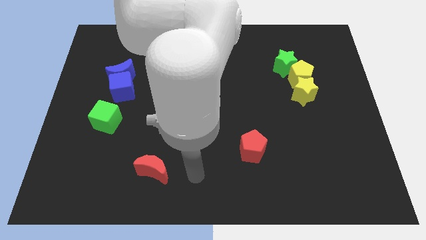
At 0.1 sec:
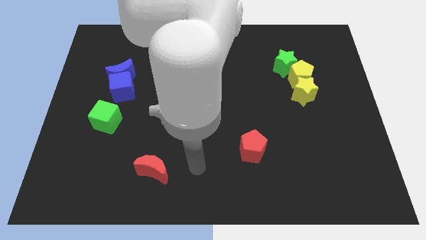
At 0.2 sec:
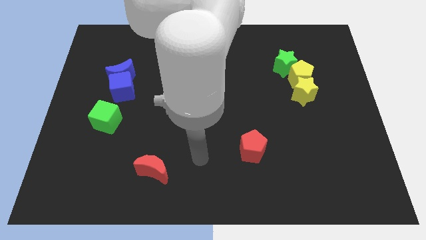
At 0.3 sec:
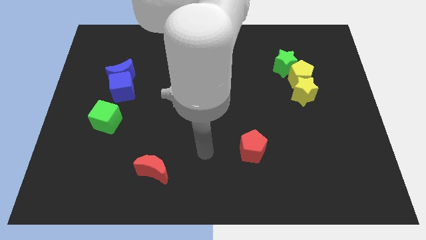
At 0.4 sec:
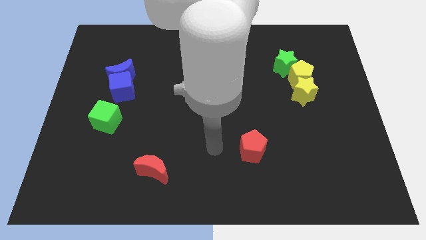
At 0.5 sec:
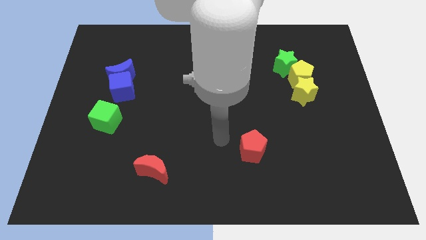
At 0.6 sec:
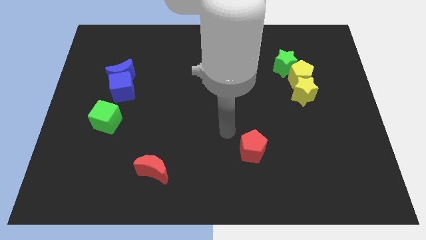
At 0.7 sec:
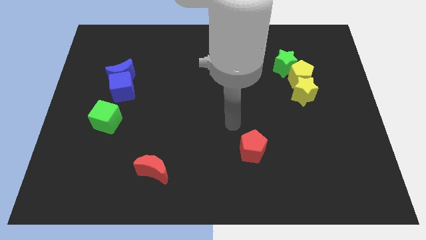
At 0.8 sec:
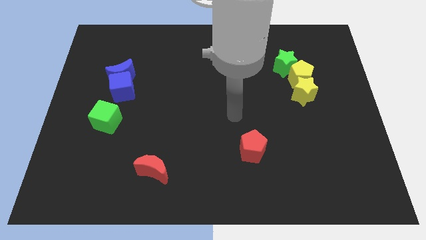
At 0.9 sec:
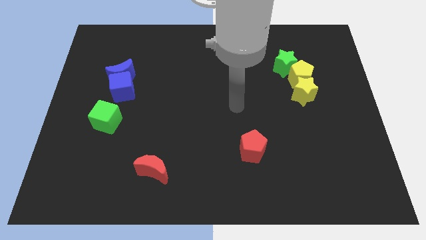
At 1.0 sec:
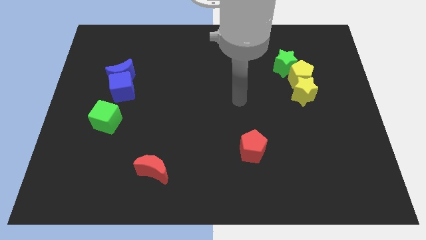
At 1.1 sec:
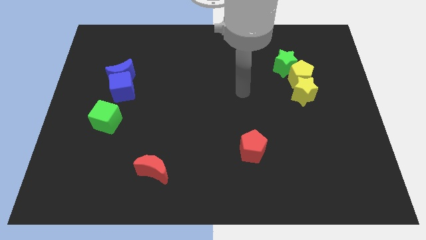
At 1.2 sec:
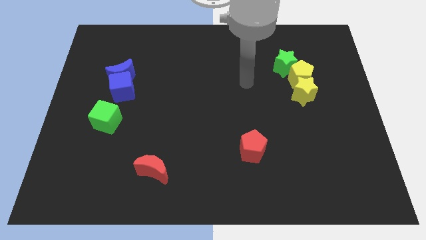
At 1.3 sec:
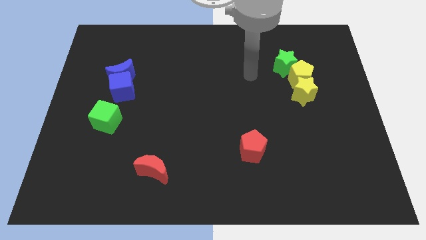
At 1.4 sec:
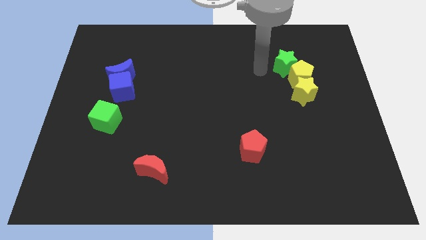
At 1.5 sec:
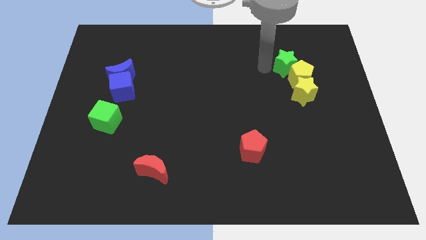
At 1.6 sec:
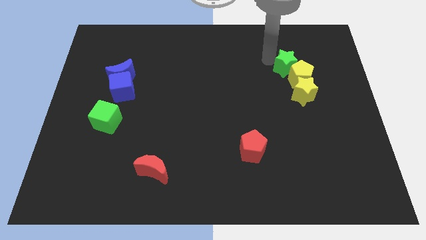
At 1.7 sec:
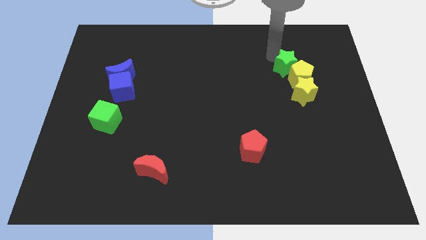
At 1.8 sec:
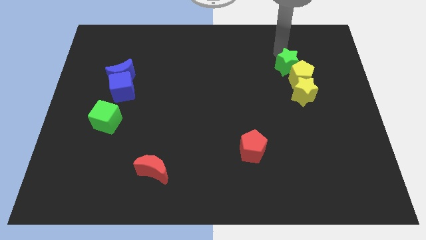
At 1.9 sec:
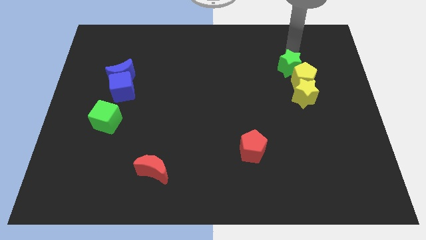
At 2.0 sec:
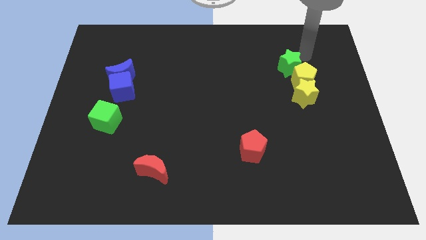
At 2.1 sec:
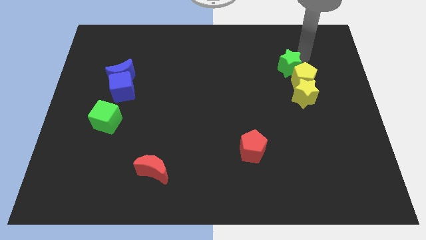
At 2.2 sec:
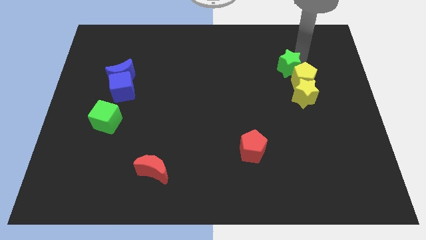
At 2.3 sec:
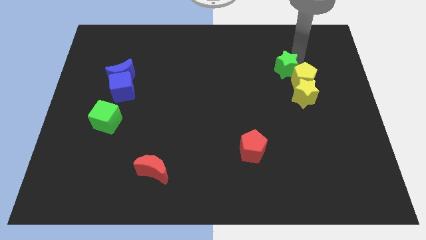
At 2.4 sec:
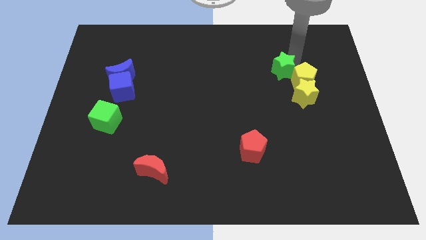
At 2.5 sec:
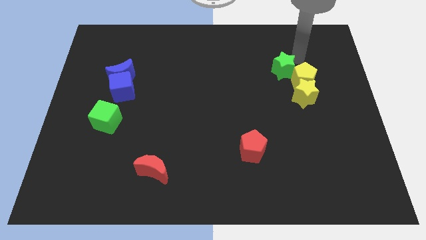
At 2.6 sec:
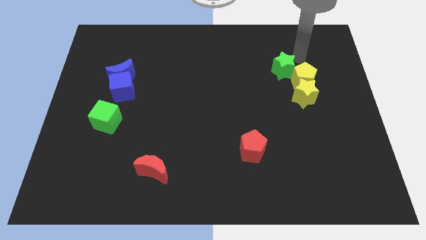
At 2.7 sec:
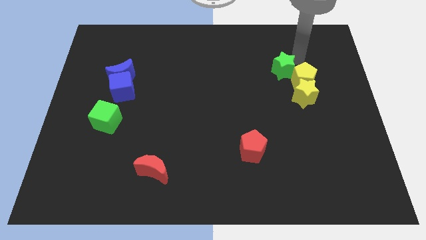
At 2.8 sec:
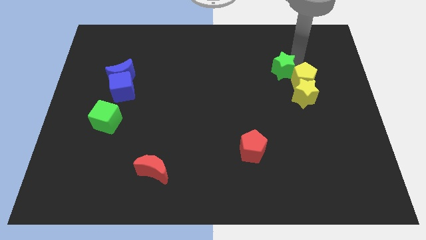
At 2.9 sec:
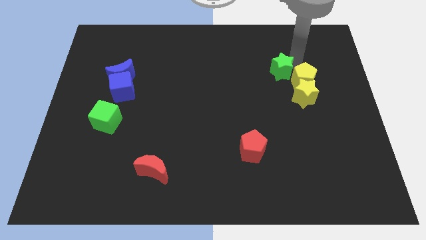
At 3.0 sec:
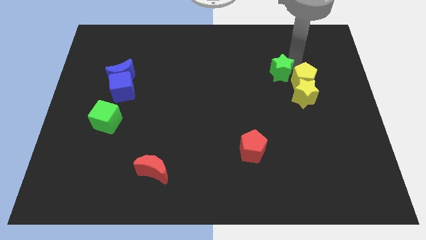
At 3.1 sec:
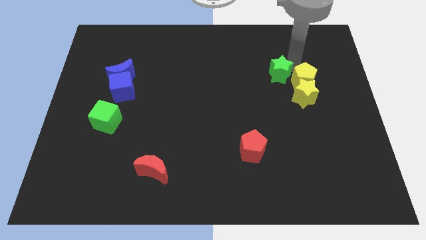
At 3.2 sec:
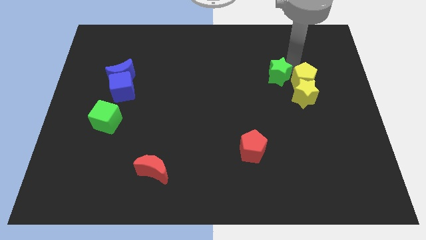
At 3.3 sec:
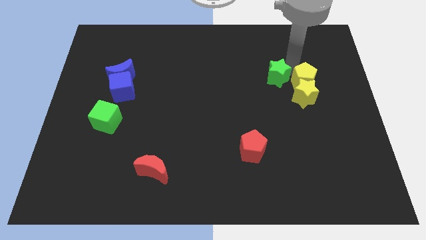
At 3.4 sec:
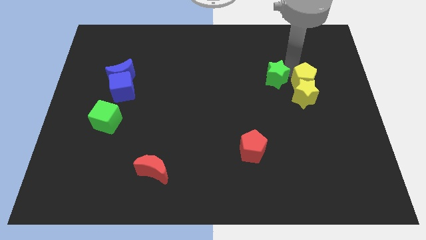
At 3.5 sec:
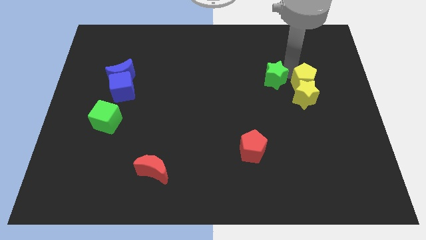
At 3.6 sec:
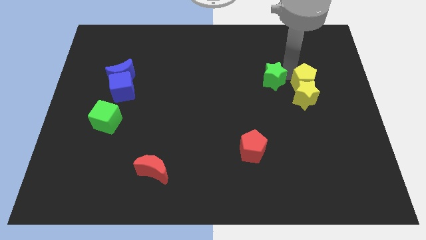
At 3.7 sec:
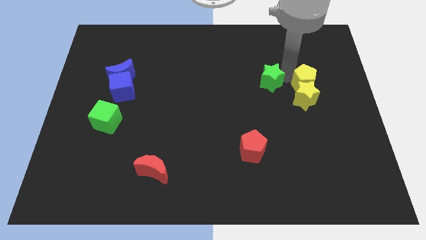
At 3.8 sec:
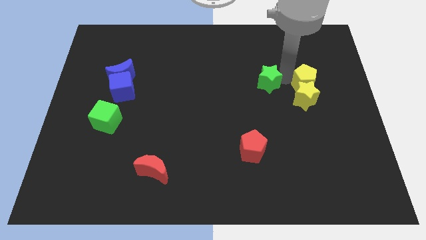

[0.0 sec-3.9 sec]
push the green star diagonally downwards and left a little bit

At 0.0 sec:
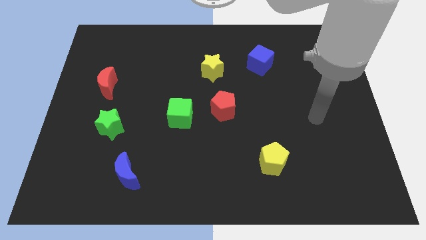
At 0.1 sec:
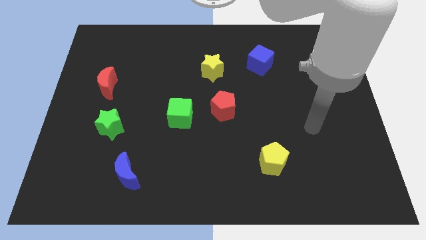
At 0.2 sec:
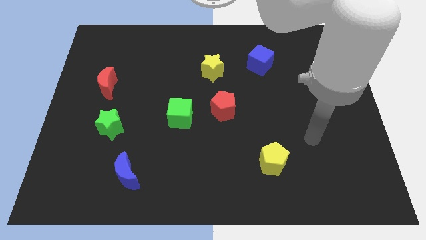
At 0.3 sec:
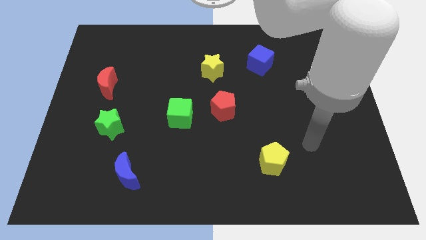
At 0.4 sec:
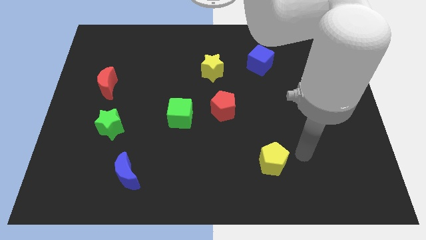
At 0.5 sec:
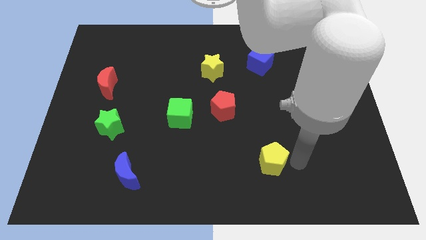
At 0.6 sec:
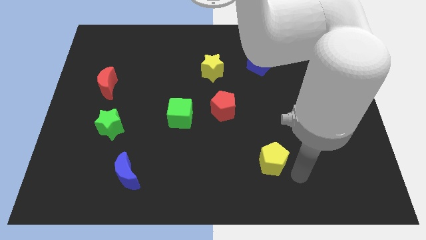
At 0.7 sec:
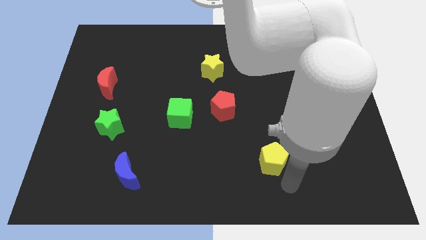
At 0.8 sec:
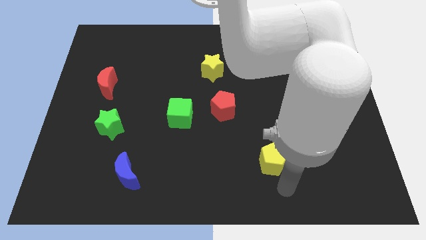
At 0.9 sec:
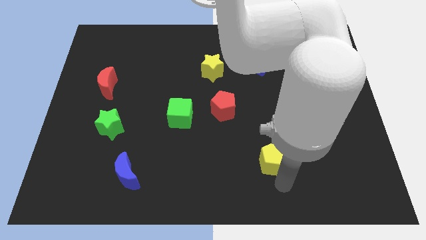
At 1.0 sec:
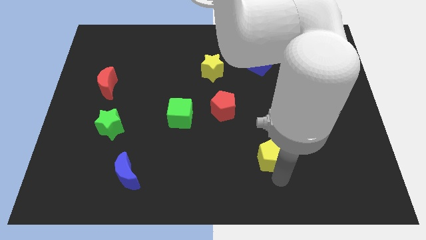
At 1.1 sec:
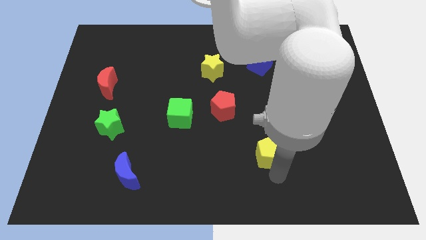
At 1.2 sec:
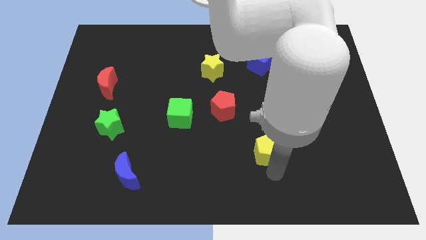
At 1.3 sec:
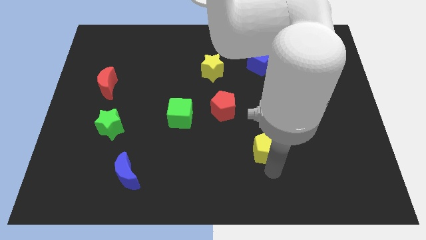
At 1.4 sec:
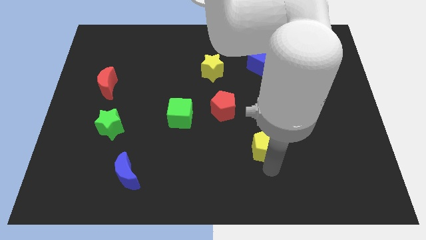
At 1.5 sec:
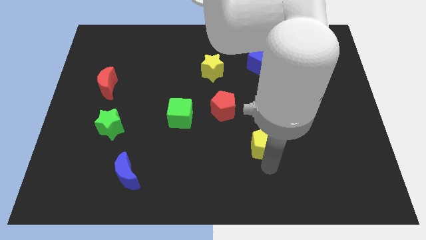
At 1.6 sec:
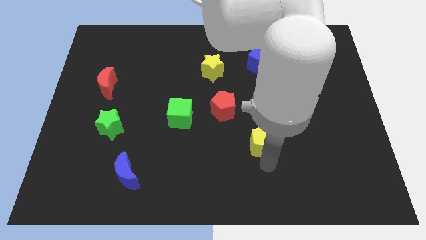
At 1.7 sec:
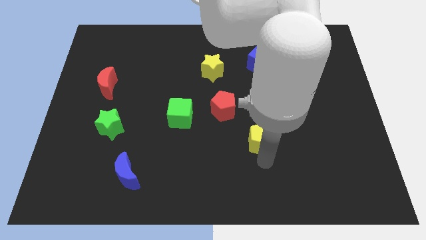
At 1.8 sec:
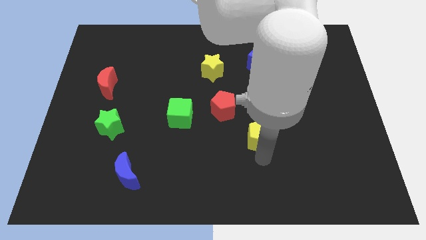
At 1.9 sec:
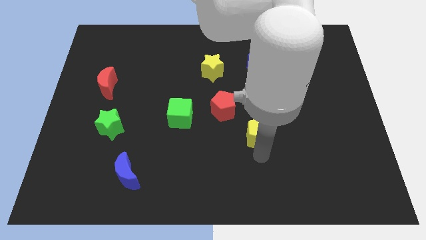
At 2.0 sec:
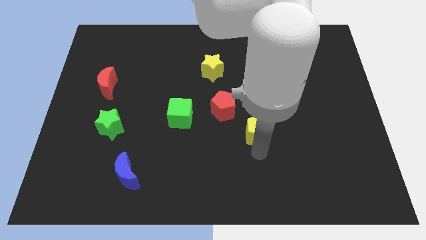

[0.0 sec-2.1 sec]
slide the yellow pentagon somewhat upwards

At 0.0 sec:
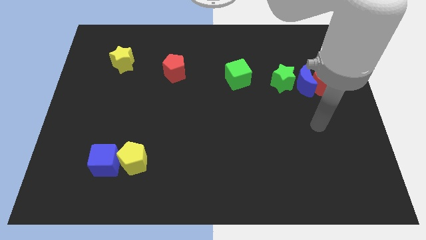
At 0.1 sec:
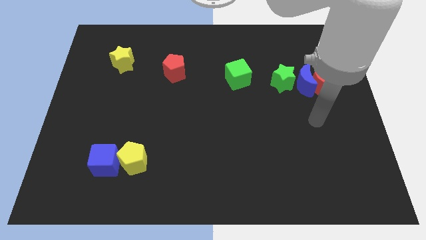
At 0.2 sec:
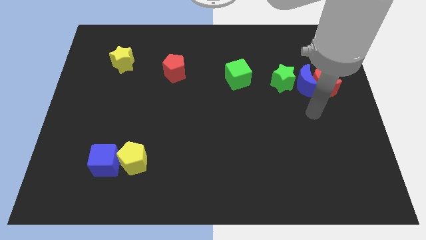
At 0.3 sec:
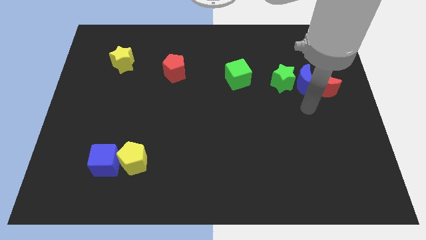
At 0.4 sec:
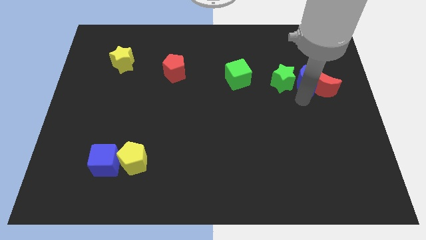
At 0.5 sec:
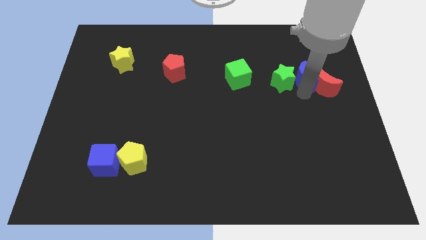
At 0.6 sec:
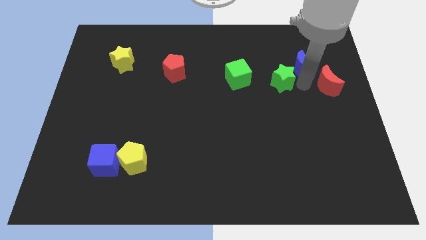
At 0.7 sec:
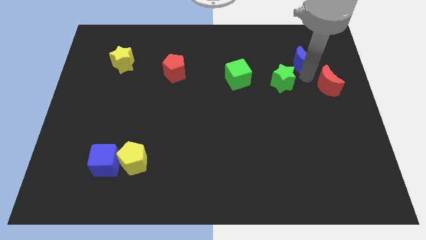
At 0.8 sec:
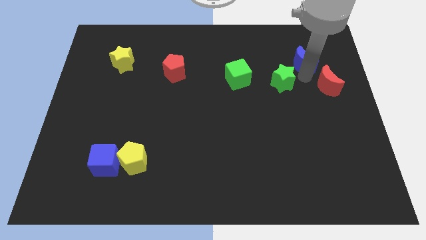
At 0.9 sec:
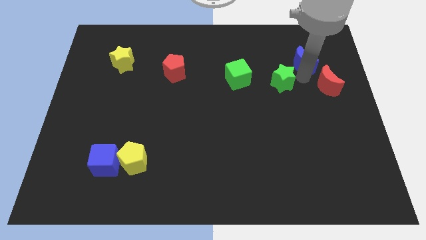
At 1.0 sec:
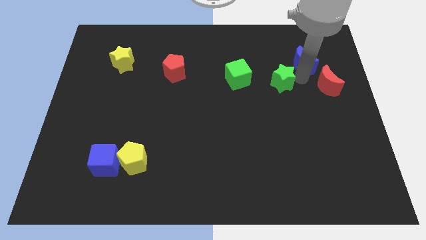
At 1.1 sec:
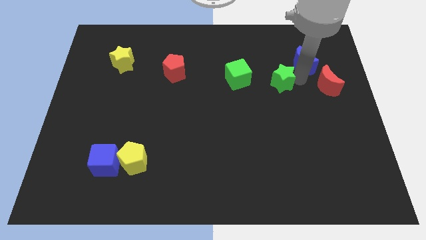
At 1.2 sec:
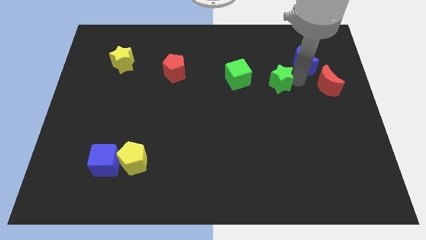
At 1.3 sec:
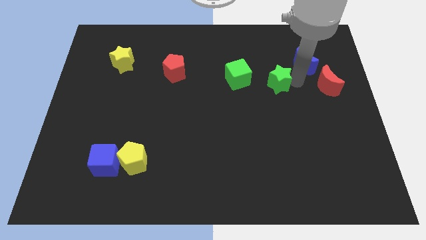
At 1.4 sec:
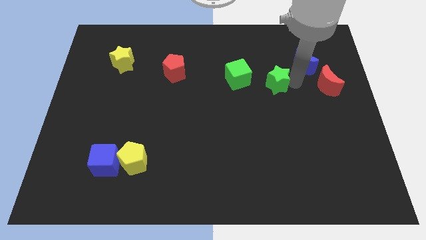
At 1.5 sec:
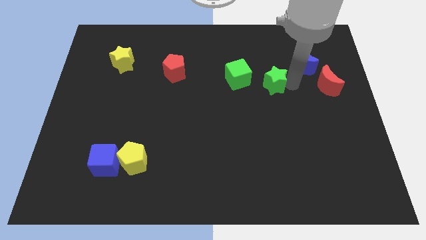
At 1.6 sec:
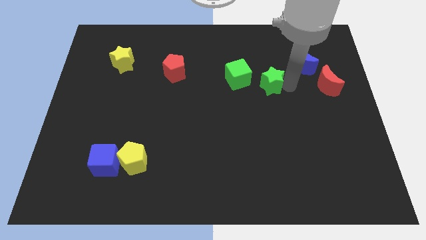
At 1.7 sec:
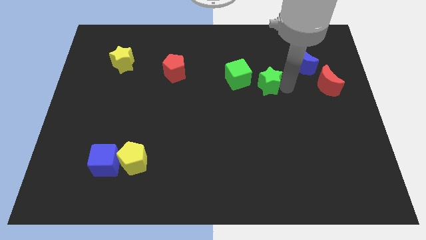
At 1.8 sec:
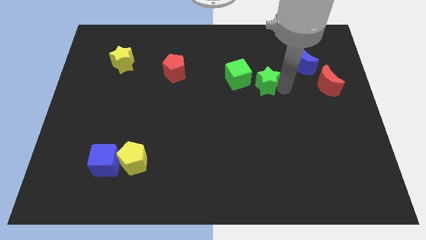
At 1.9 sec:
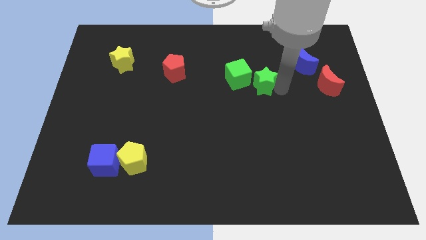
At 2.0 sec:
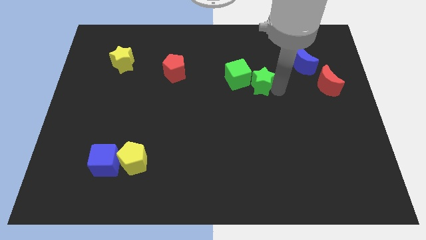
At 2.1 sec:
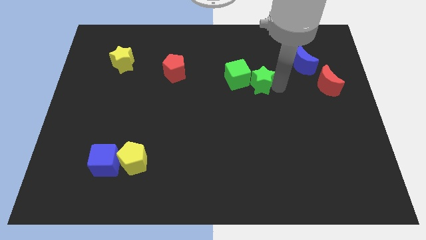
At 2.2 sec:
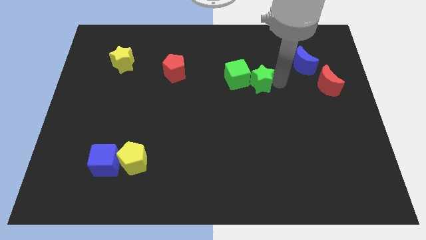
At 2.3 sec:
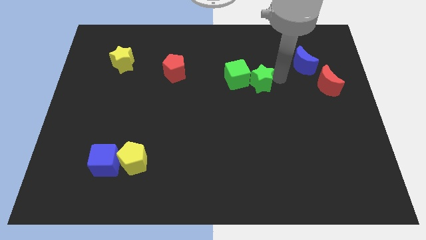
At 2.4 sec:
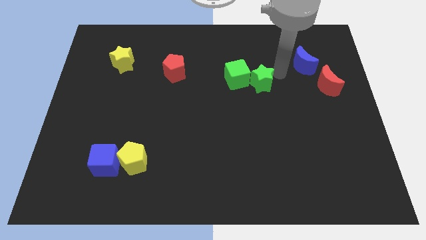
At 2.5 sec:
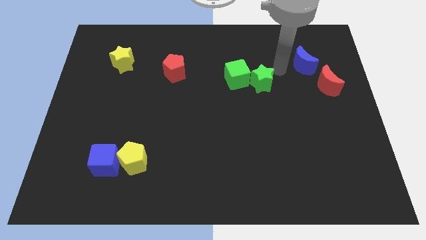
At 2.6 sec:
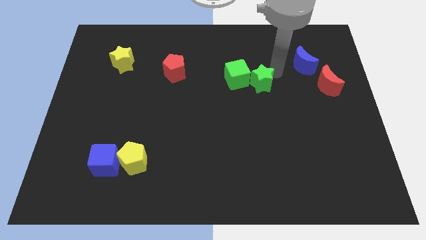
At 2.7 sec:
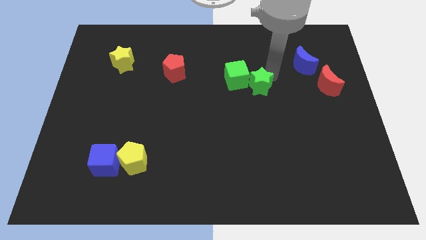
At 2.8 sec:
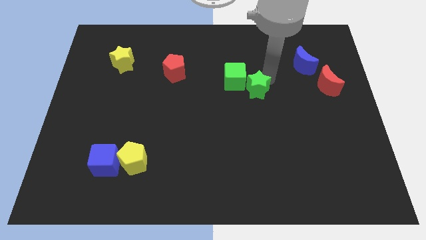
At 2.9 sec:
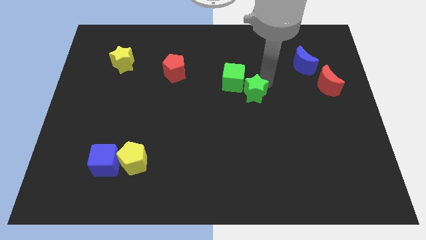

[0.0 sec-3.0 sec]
move the green star left slightly
